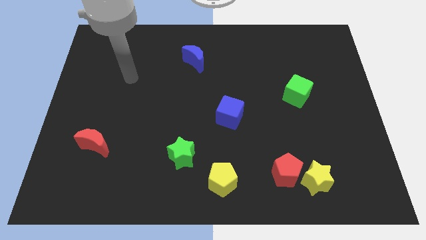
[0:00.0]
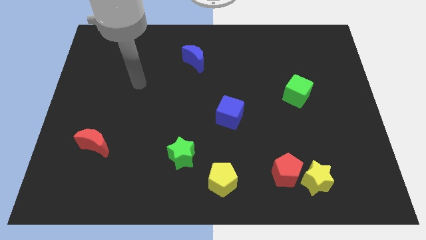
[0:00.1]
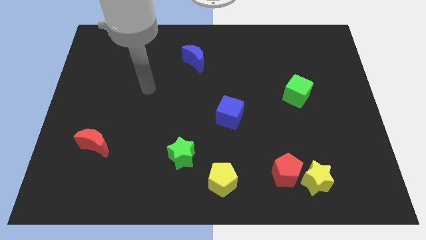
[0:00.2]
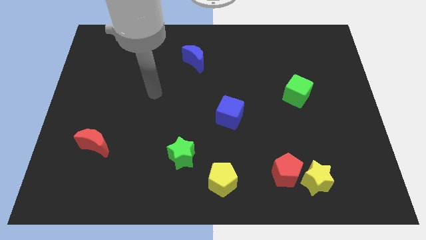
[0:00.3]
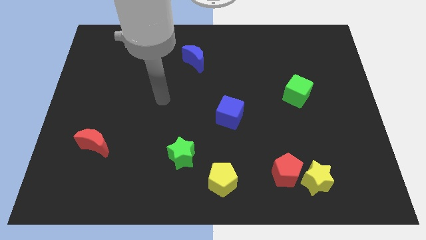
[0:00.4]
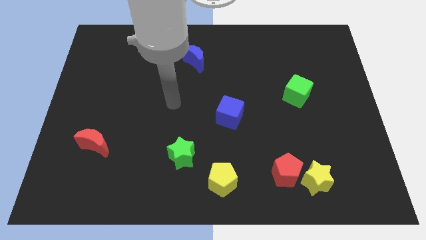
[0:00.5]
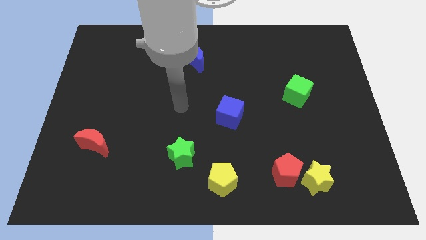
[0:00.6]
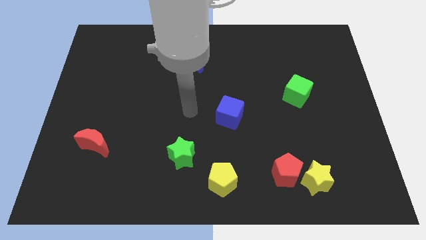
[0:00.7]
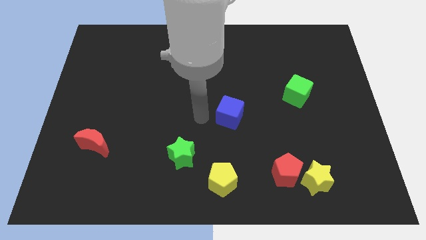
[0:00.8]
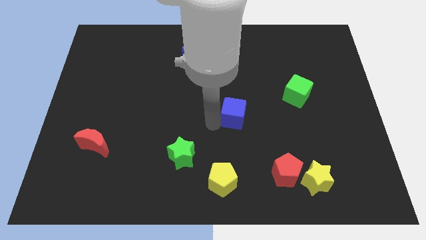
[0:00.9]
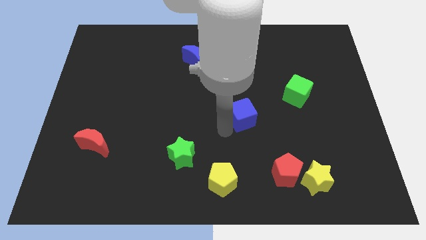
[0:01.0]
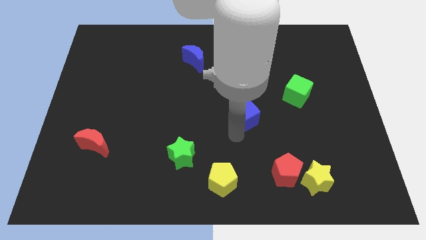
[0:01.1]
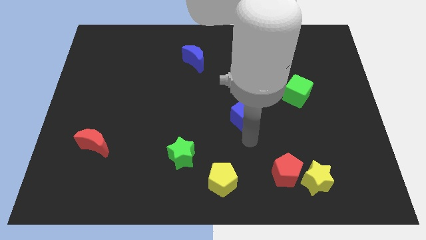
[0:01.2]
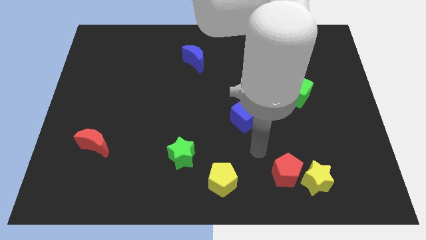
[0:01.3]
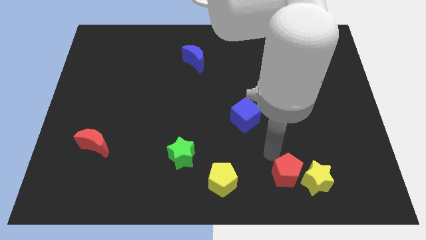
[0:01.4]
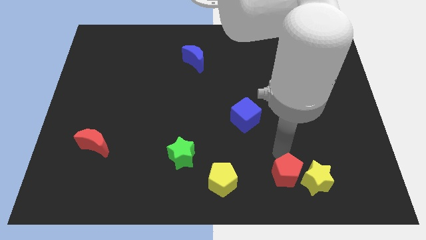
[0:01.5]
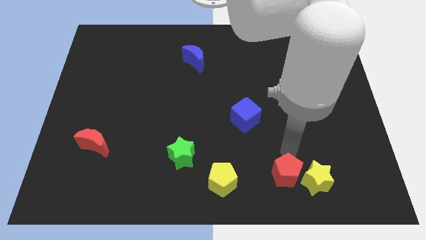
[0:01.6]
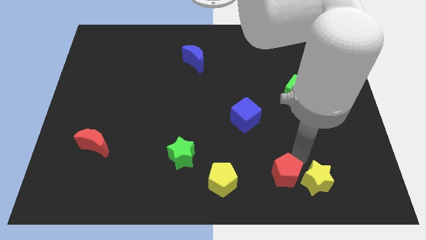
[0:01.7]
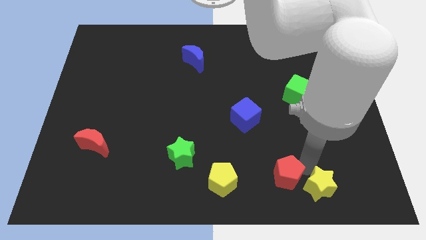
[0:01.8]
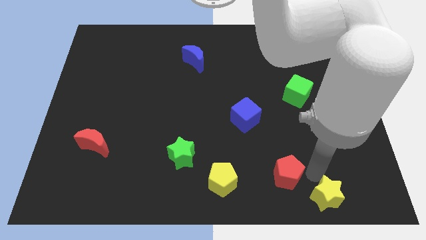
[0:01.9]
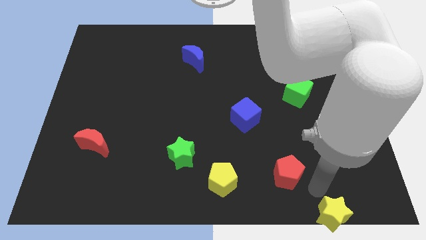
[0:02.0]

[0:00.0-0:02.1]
separate the red pentagon from the yellow star

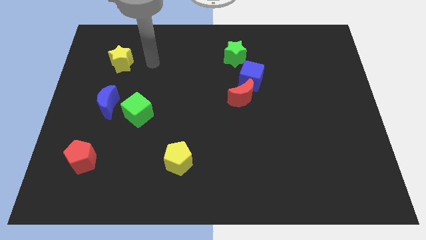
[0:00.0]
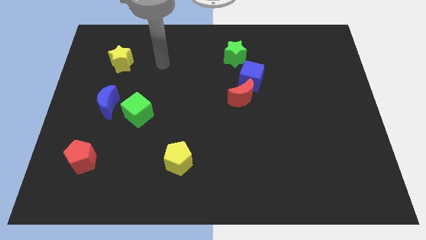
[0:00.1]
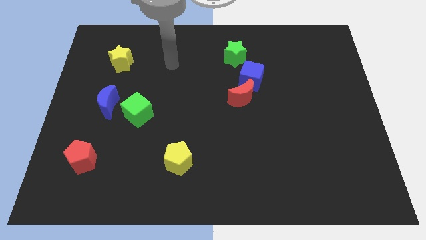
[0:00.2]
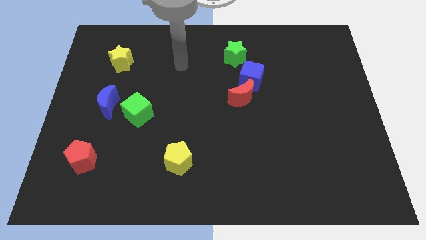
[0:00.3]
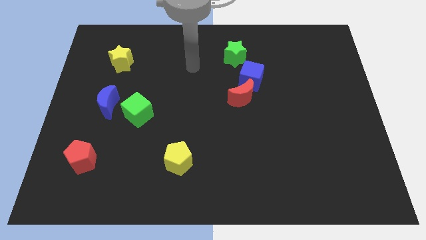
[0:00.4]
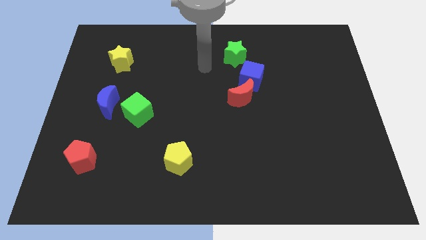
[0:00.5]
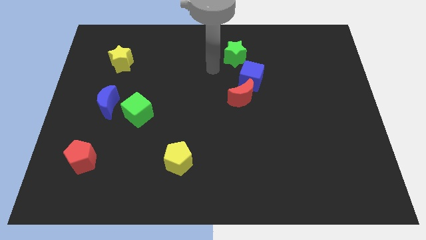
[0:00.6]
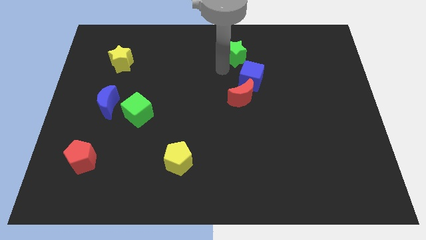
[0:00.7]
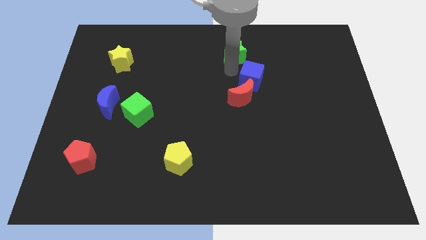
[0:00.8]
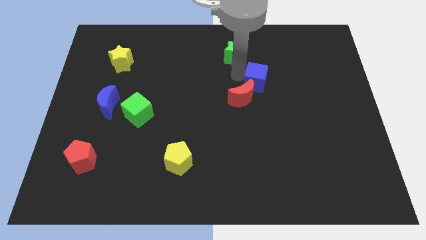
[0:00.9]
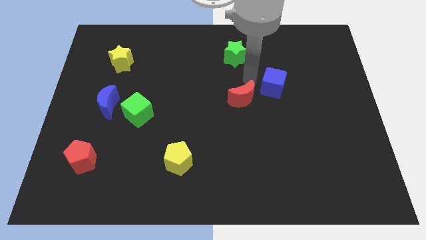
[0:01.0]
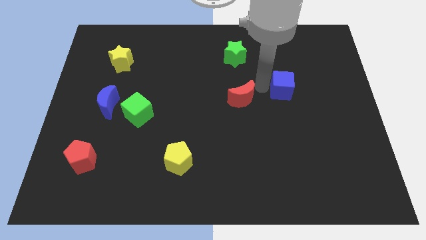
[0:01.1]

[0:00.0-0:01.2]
pull the red moon apart from the blue cube

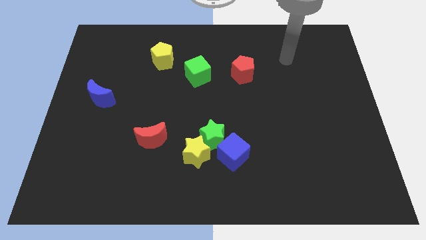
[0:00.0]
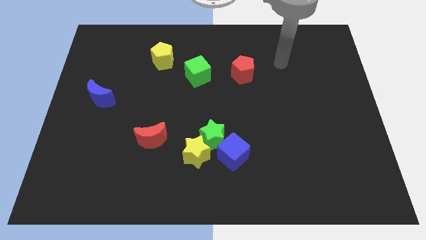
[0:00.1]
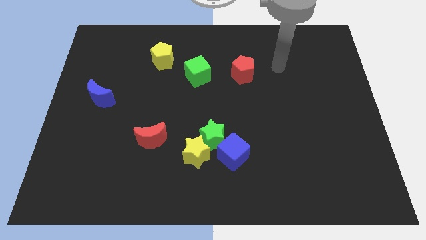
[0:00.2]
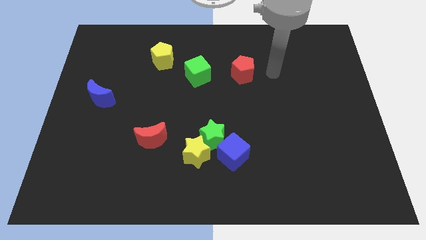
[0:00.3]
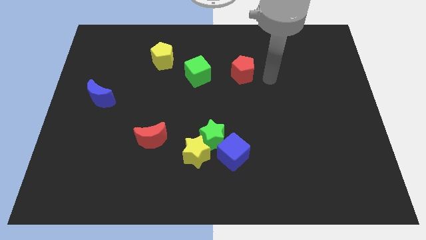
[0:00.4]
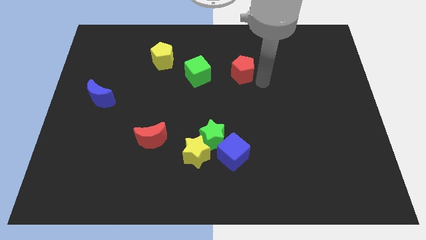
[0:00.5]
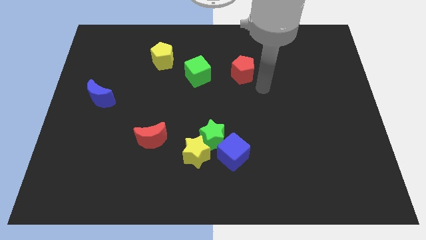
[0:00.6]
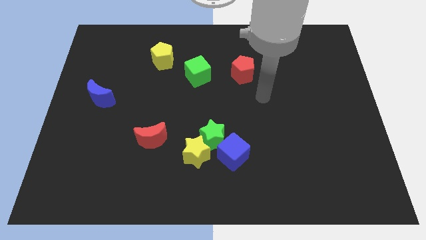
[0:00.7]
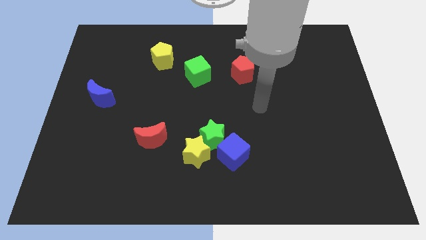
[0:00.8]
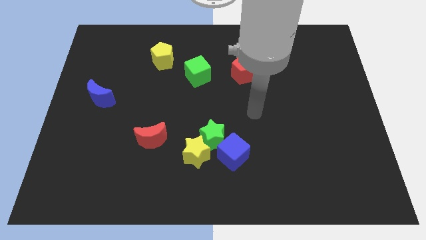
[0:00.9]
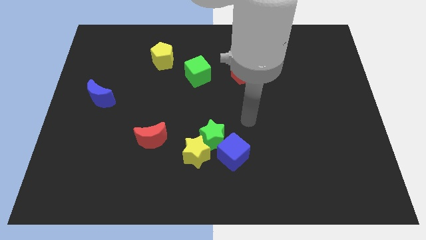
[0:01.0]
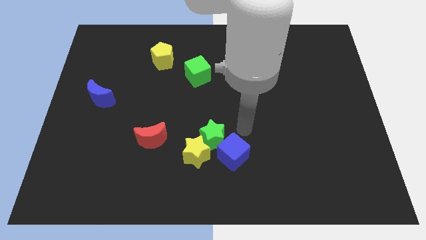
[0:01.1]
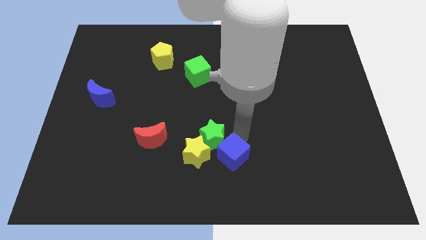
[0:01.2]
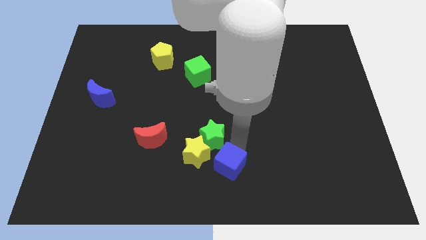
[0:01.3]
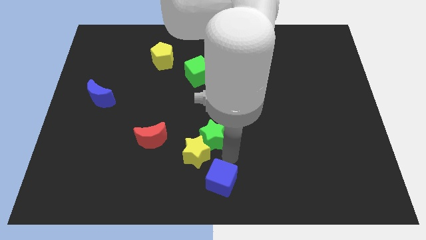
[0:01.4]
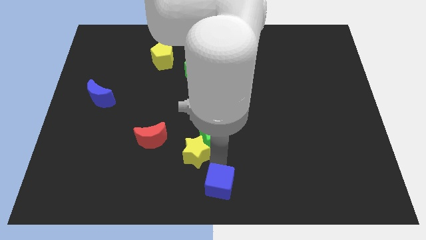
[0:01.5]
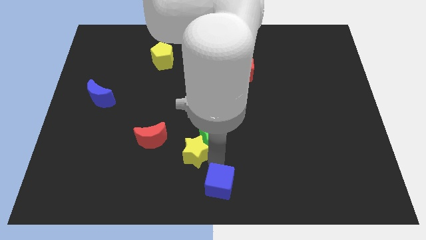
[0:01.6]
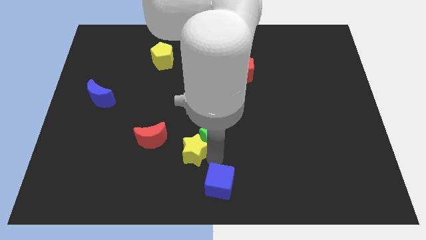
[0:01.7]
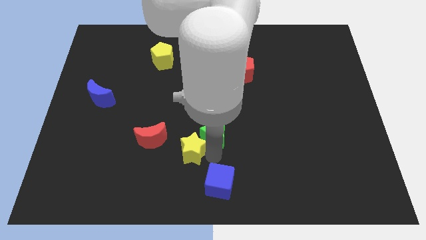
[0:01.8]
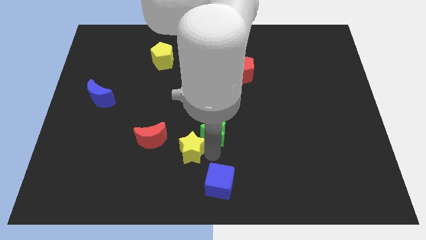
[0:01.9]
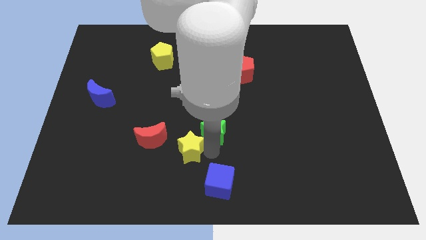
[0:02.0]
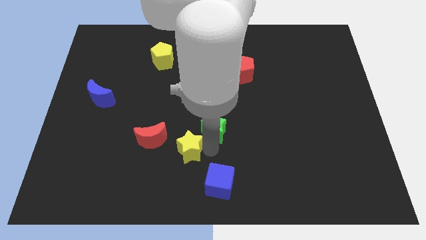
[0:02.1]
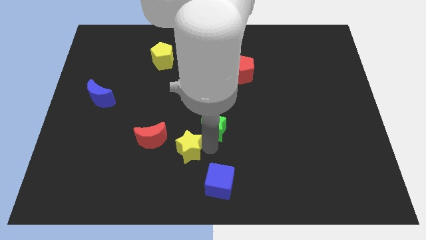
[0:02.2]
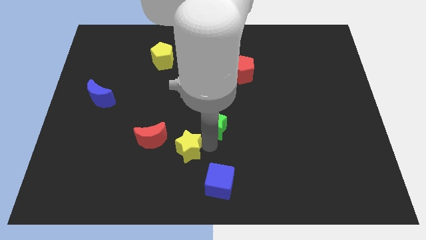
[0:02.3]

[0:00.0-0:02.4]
pull the green star apart from the yellow star and blue cube

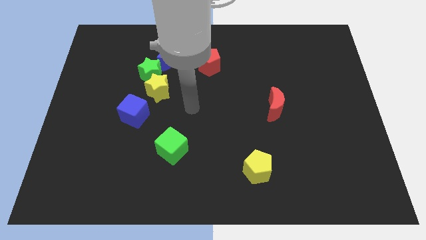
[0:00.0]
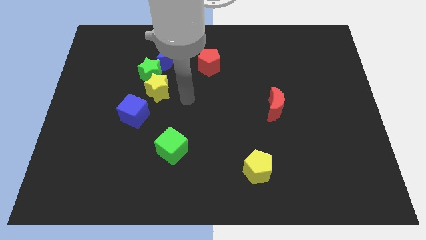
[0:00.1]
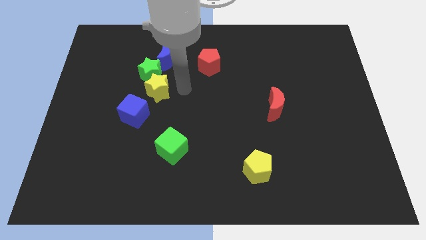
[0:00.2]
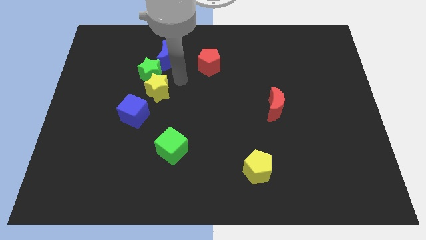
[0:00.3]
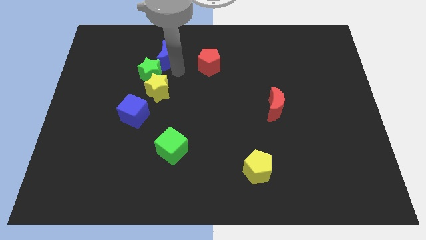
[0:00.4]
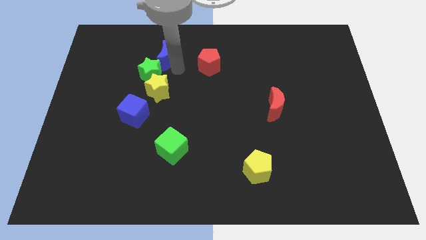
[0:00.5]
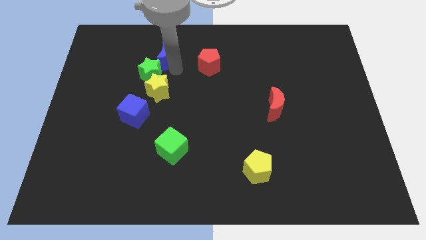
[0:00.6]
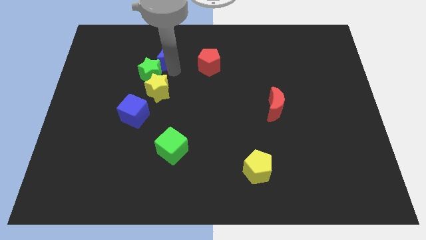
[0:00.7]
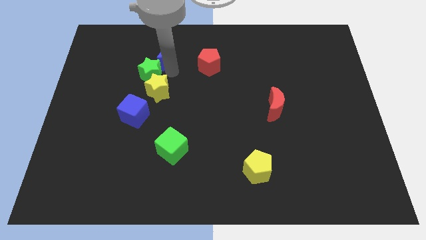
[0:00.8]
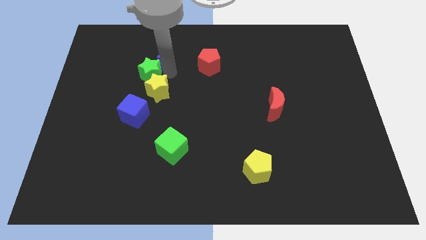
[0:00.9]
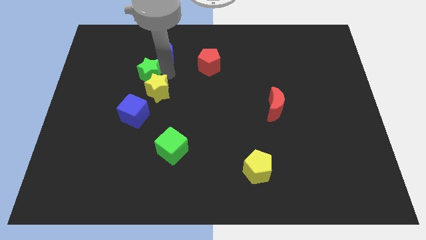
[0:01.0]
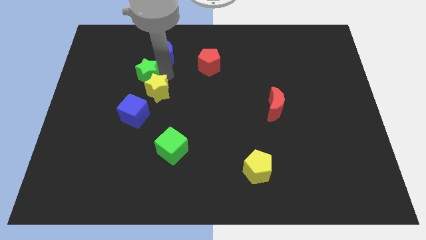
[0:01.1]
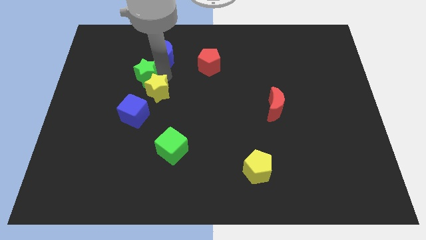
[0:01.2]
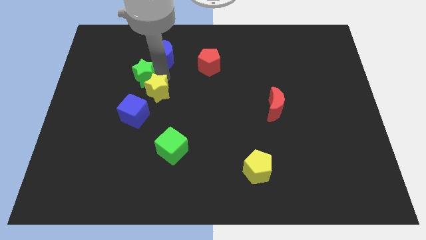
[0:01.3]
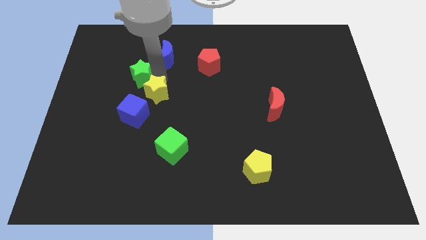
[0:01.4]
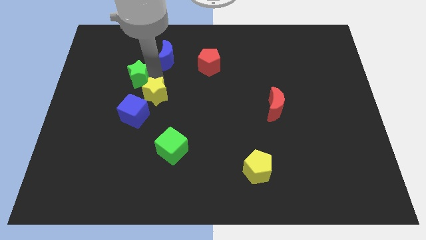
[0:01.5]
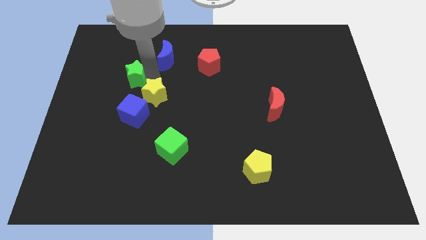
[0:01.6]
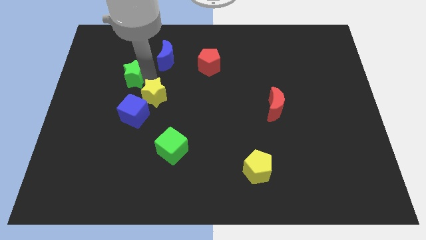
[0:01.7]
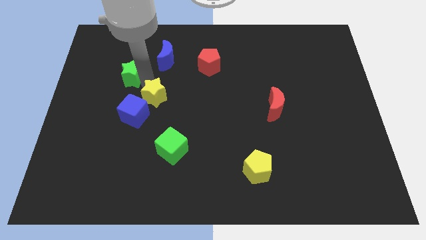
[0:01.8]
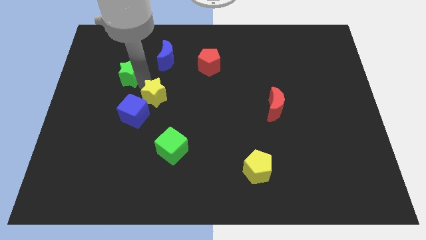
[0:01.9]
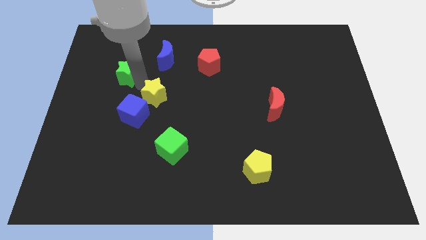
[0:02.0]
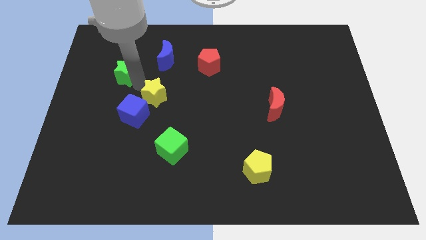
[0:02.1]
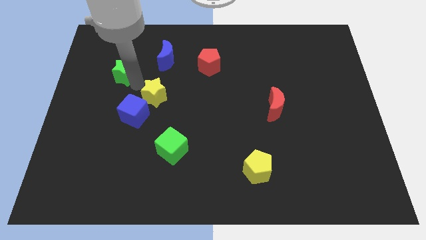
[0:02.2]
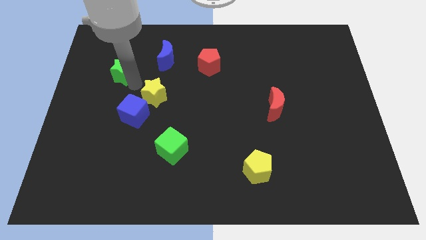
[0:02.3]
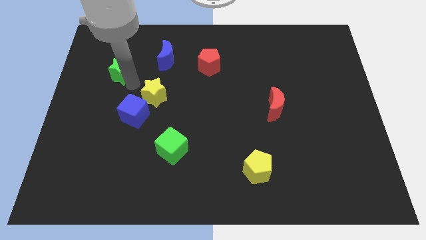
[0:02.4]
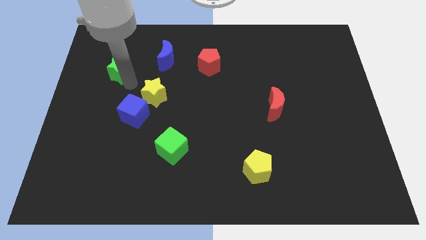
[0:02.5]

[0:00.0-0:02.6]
pull the green star apart from the yellow star and blue moon

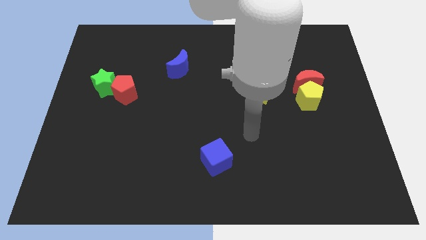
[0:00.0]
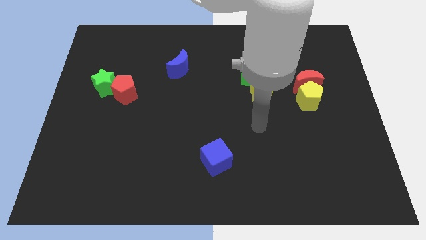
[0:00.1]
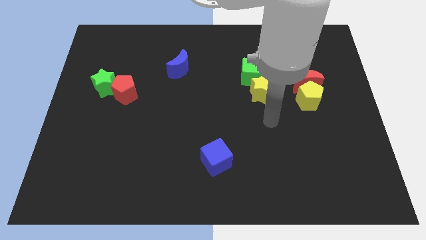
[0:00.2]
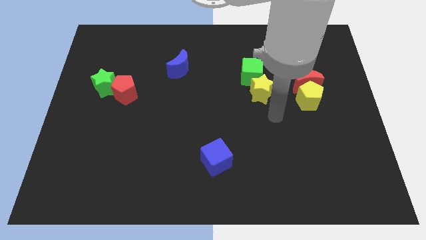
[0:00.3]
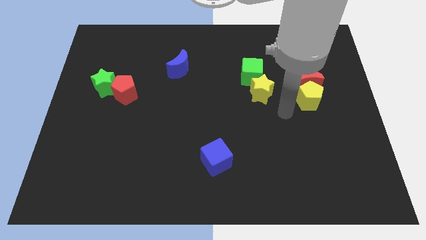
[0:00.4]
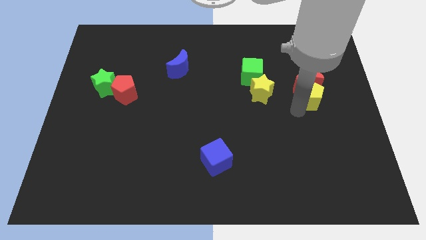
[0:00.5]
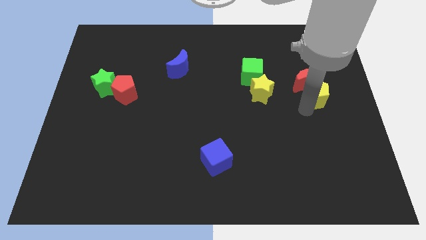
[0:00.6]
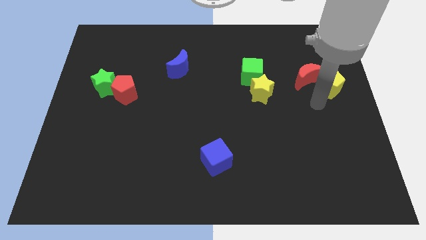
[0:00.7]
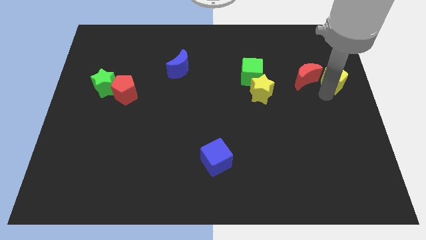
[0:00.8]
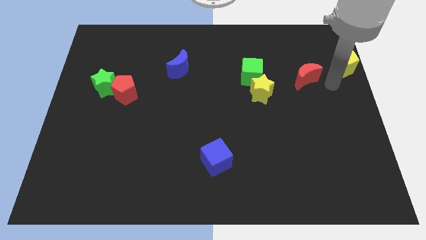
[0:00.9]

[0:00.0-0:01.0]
move the red moon away from the yellow pentagon
